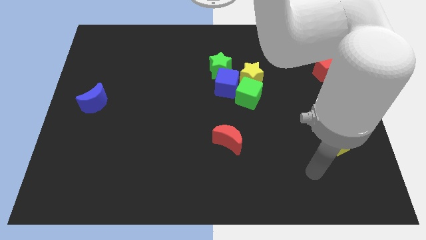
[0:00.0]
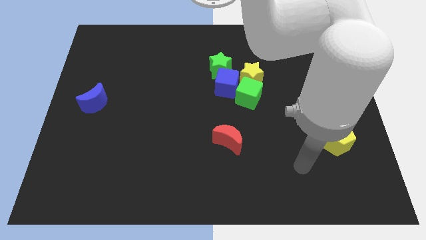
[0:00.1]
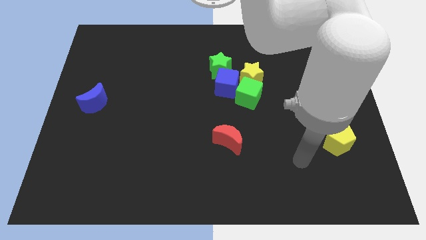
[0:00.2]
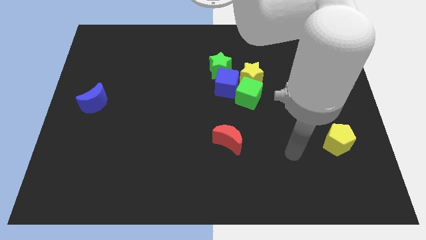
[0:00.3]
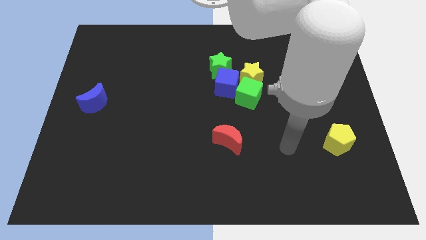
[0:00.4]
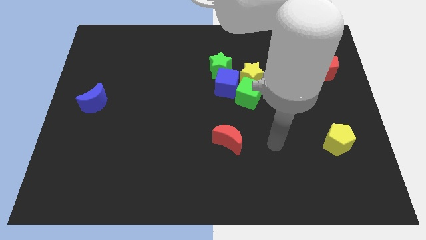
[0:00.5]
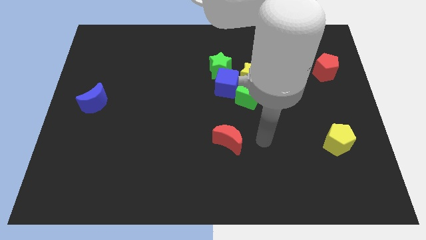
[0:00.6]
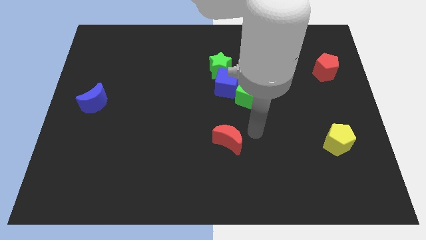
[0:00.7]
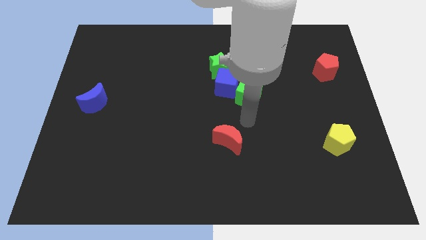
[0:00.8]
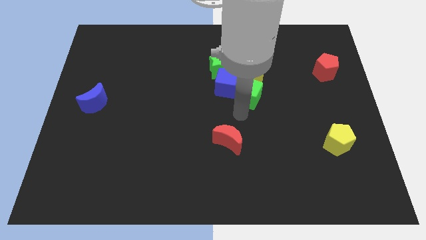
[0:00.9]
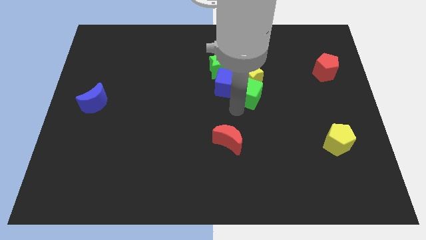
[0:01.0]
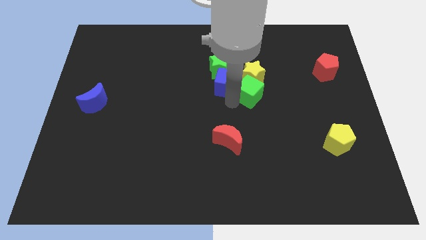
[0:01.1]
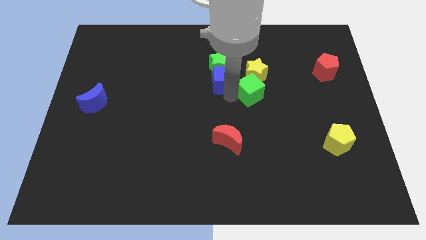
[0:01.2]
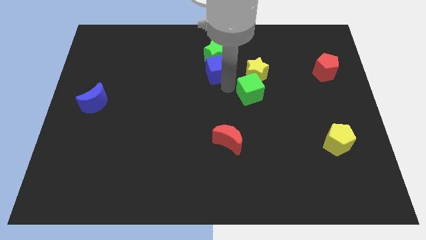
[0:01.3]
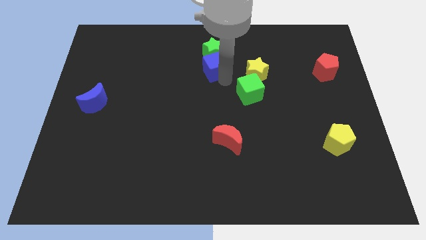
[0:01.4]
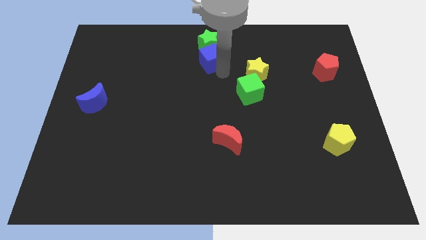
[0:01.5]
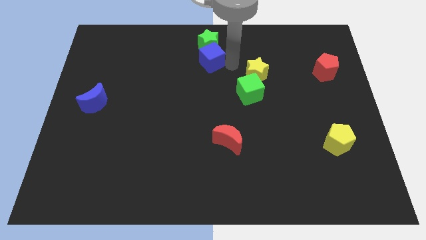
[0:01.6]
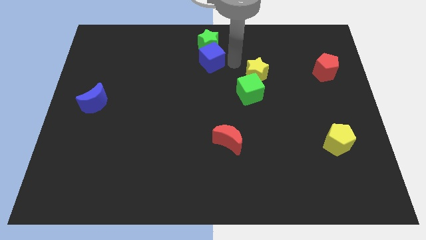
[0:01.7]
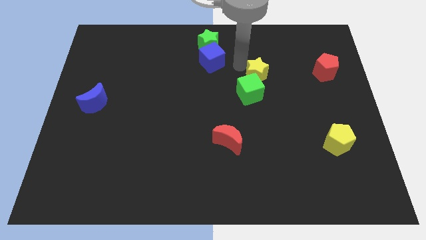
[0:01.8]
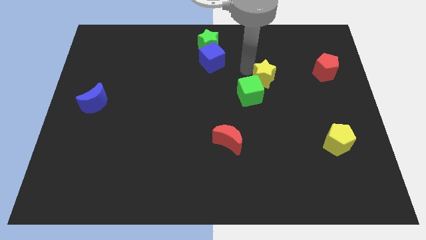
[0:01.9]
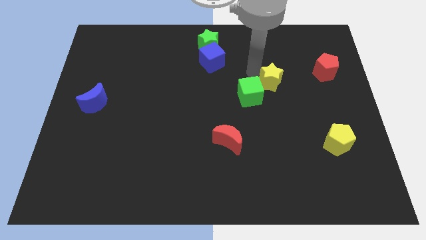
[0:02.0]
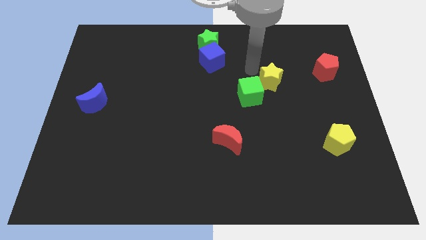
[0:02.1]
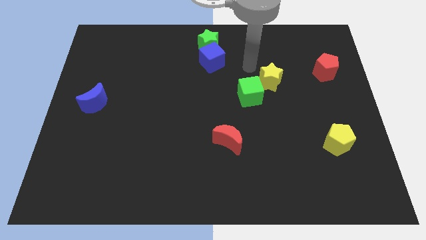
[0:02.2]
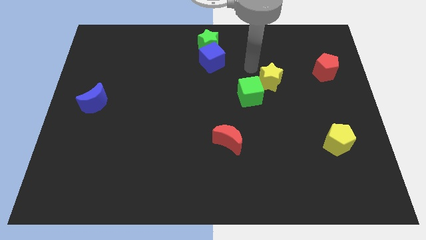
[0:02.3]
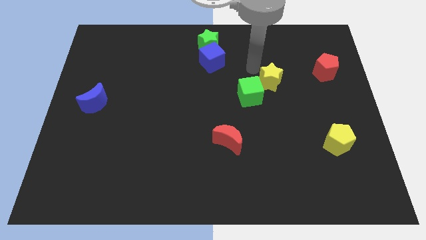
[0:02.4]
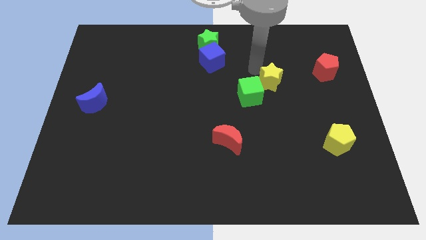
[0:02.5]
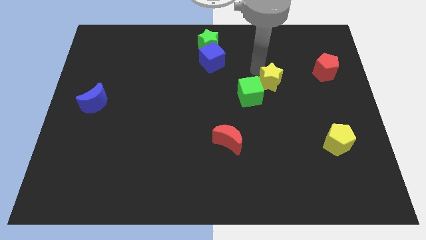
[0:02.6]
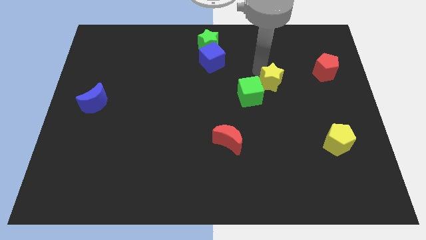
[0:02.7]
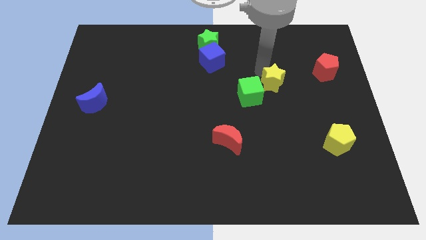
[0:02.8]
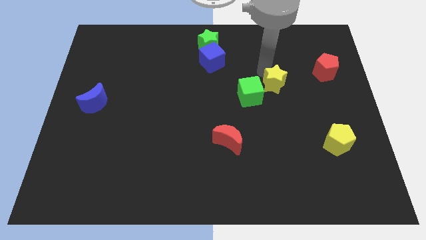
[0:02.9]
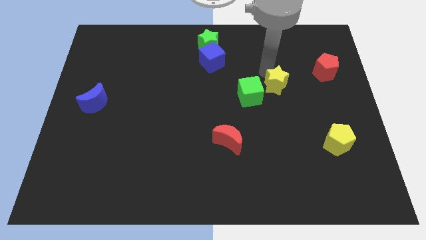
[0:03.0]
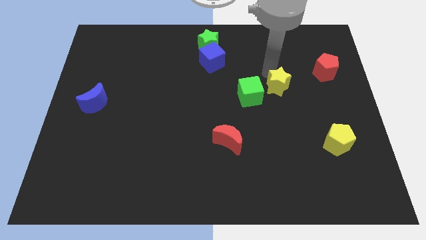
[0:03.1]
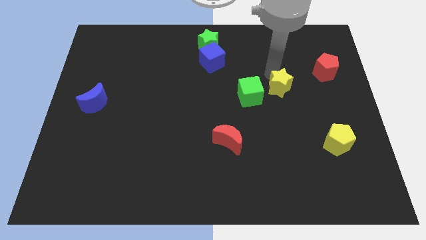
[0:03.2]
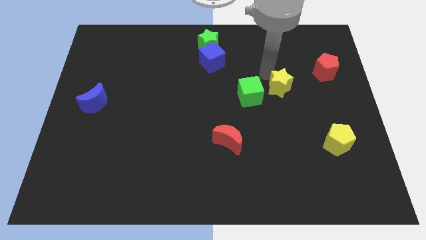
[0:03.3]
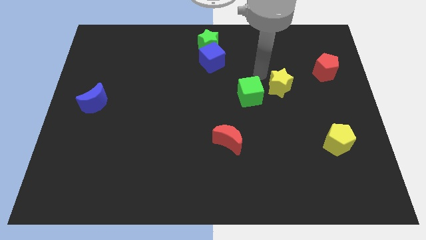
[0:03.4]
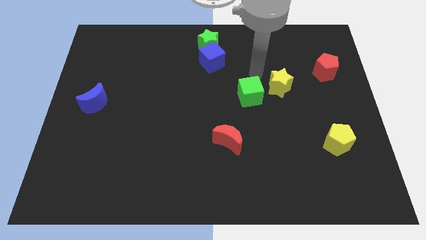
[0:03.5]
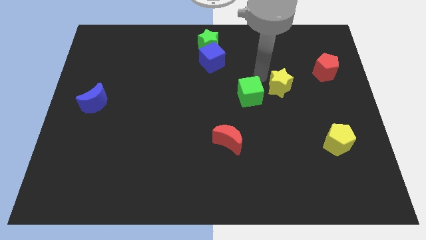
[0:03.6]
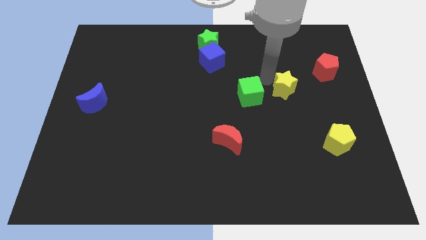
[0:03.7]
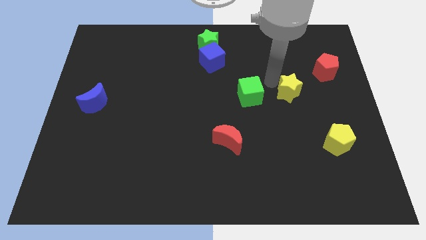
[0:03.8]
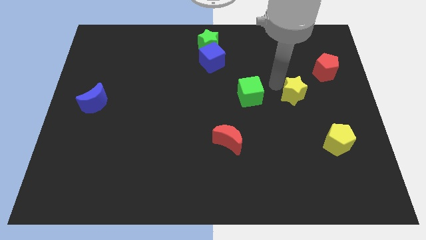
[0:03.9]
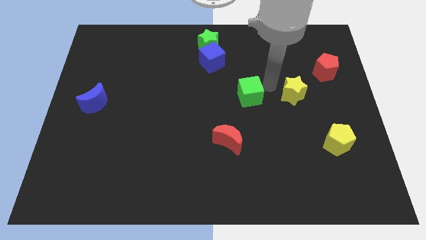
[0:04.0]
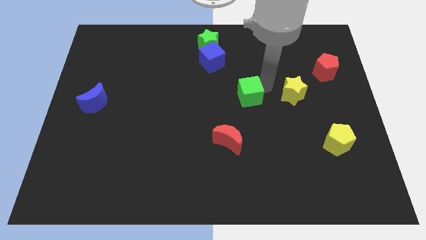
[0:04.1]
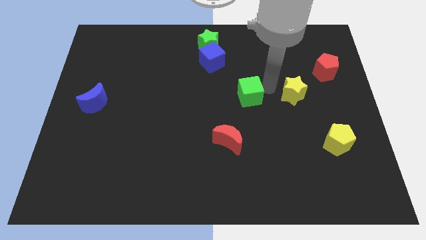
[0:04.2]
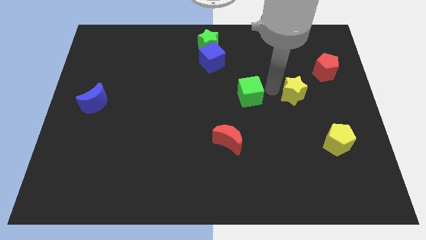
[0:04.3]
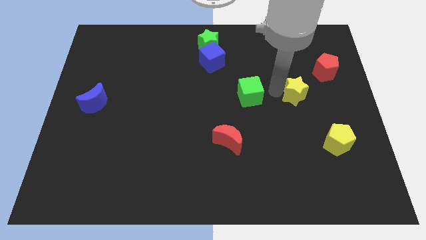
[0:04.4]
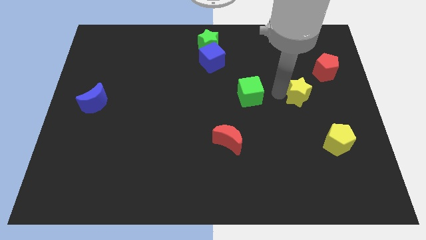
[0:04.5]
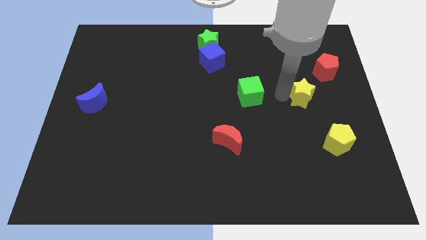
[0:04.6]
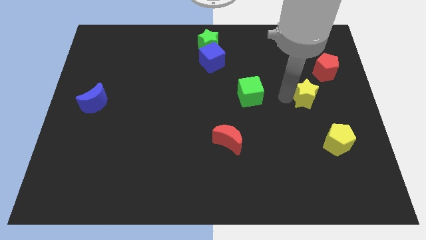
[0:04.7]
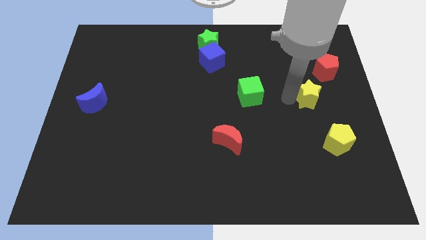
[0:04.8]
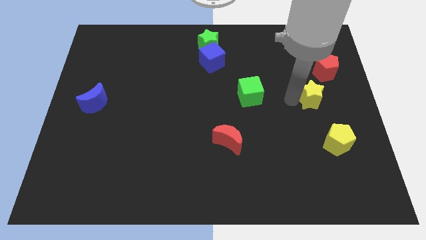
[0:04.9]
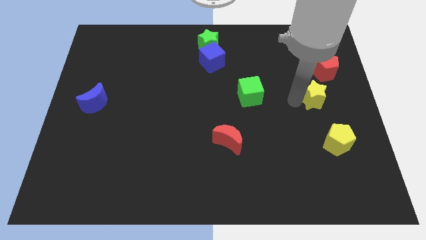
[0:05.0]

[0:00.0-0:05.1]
slide the yellow star to the bottom of the red pentagon
